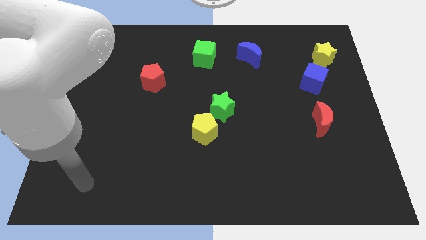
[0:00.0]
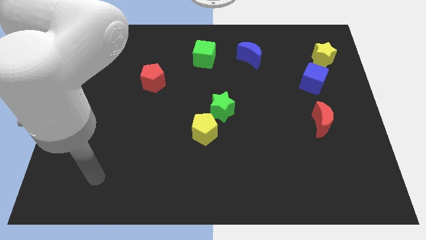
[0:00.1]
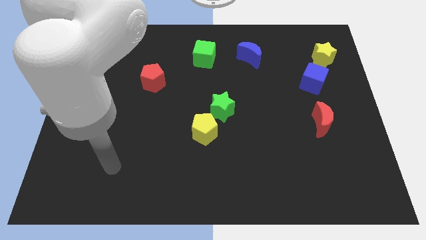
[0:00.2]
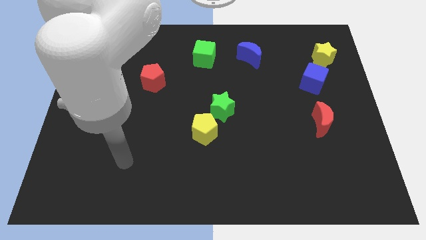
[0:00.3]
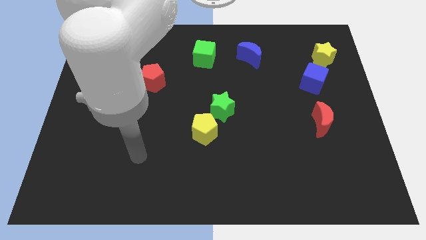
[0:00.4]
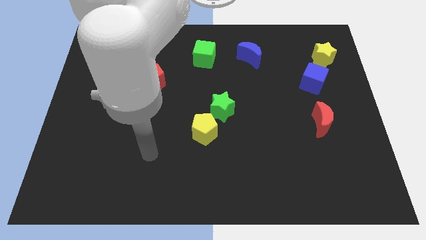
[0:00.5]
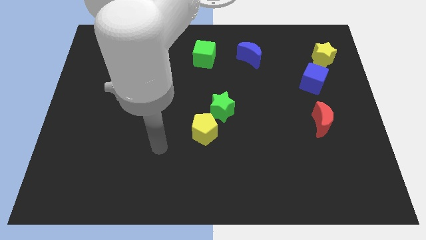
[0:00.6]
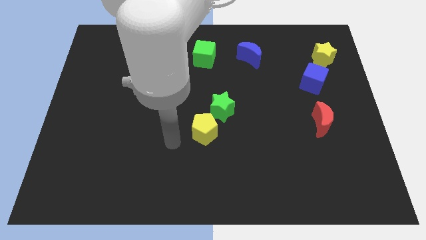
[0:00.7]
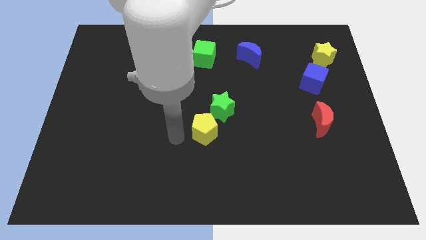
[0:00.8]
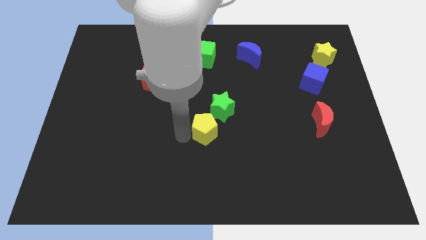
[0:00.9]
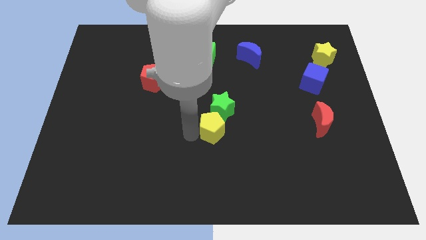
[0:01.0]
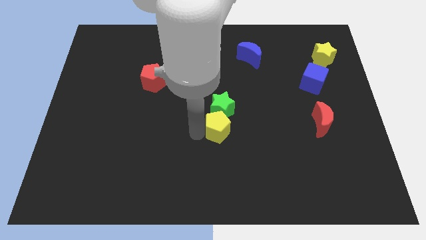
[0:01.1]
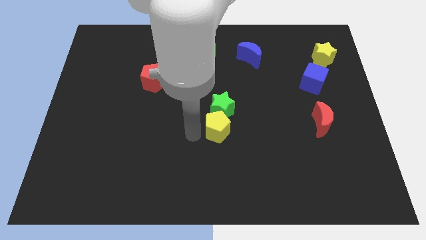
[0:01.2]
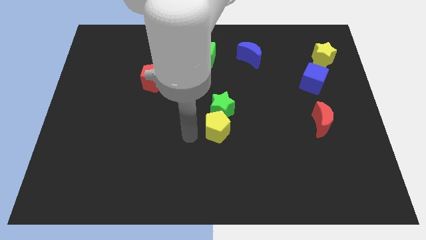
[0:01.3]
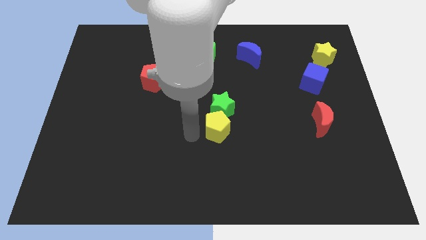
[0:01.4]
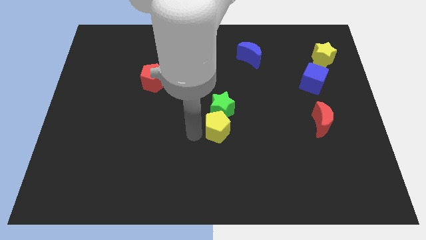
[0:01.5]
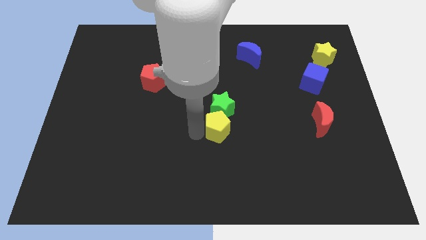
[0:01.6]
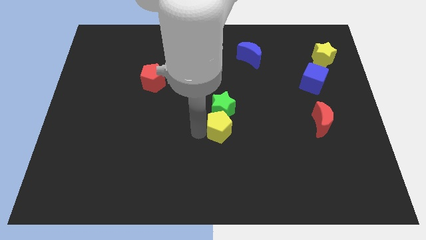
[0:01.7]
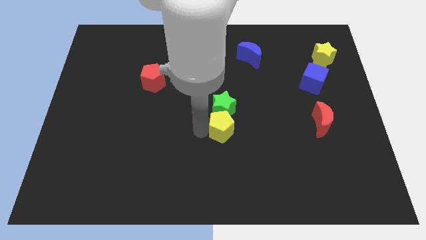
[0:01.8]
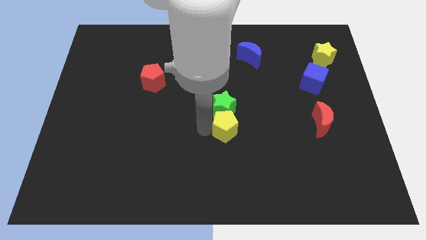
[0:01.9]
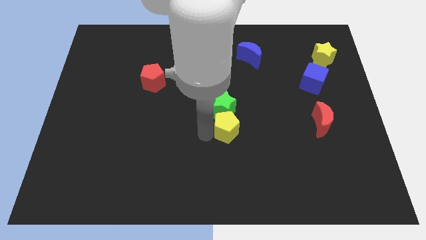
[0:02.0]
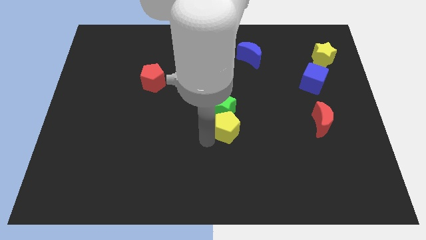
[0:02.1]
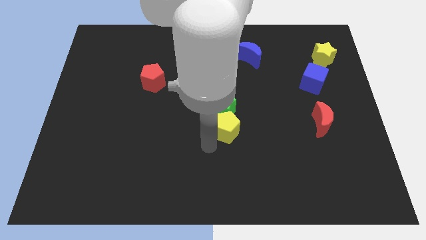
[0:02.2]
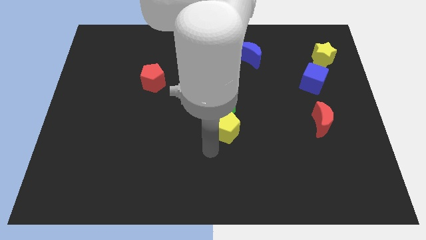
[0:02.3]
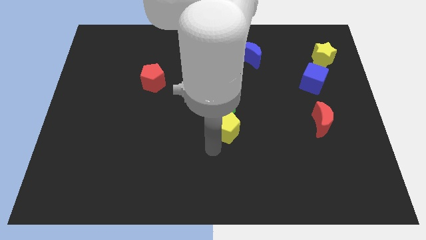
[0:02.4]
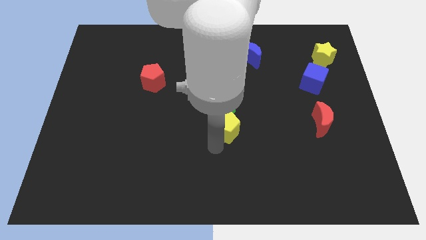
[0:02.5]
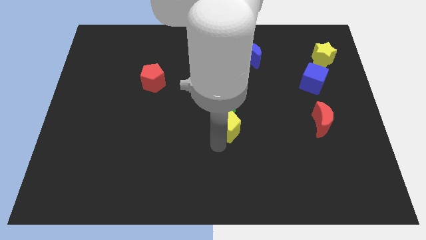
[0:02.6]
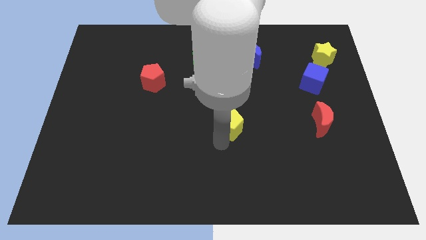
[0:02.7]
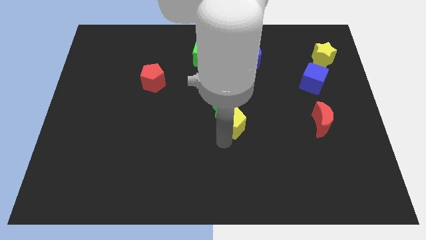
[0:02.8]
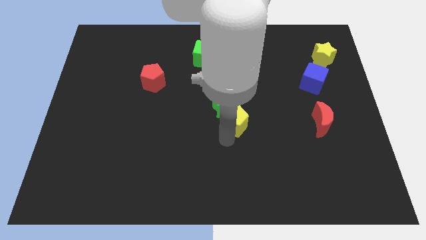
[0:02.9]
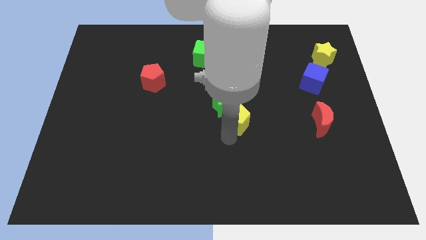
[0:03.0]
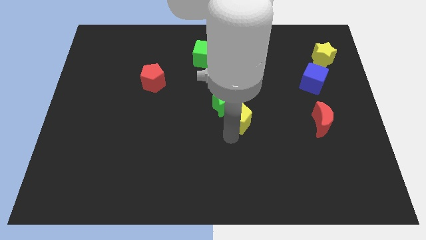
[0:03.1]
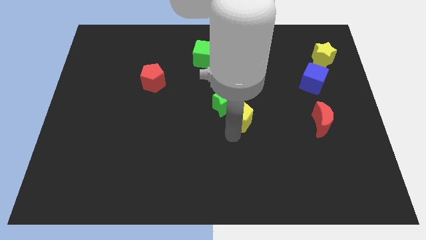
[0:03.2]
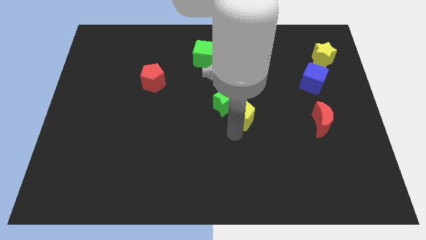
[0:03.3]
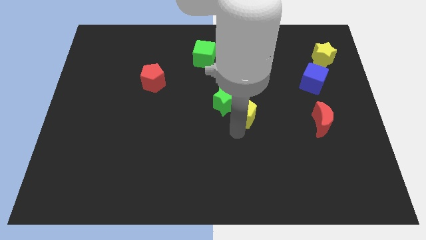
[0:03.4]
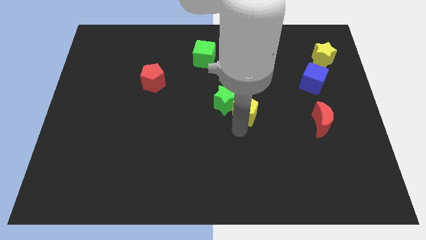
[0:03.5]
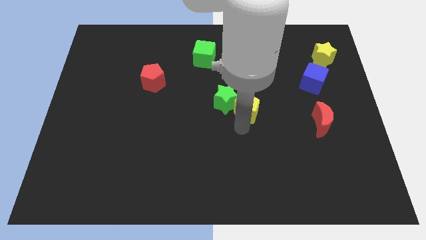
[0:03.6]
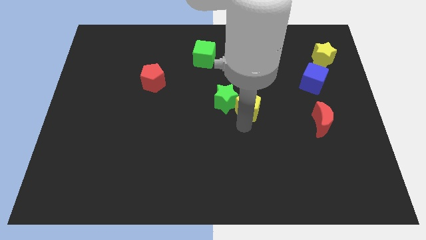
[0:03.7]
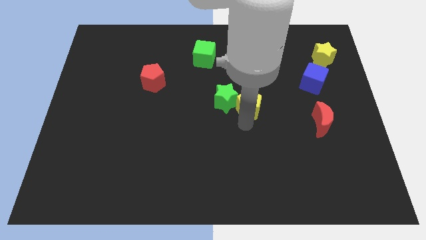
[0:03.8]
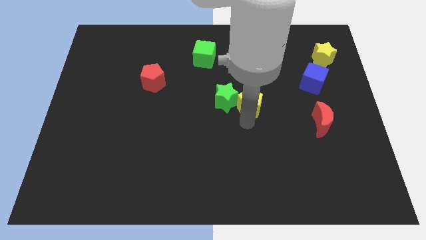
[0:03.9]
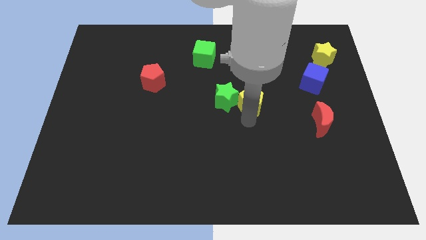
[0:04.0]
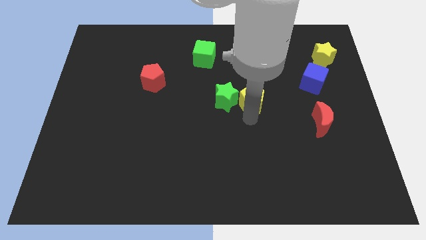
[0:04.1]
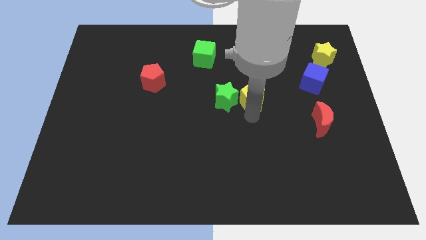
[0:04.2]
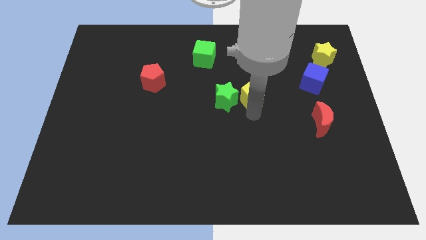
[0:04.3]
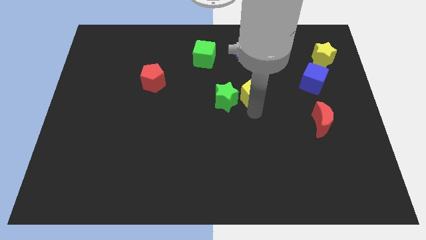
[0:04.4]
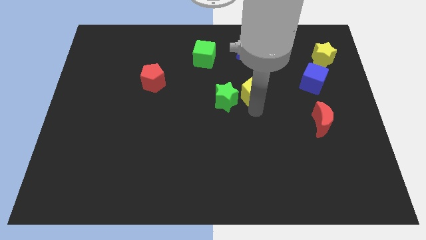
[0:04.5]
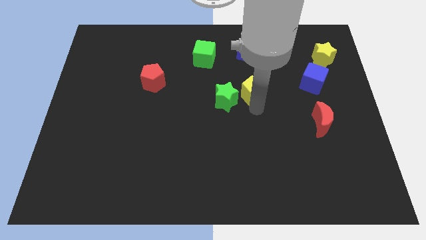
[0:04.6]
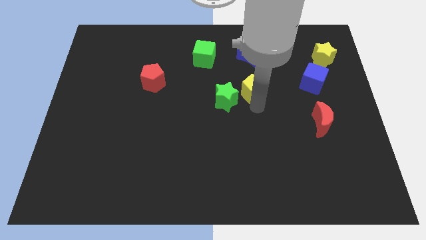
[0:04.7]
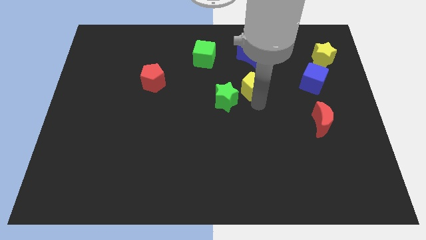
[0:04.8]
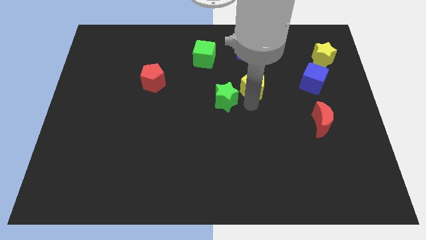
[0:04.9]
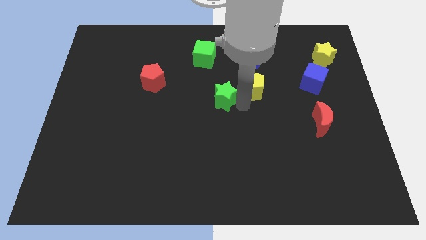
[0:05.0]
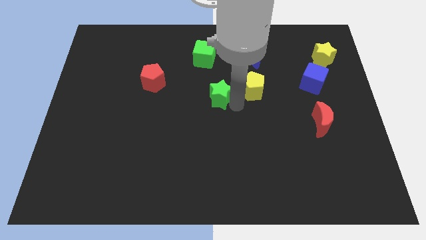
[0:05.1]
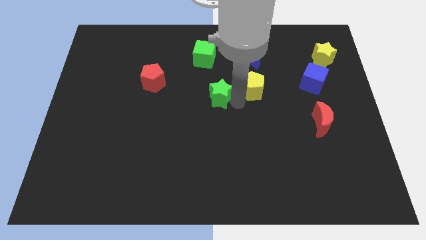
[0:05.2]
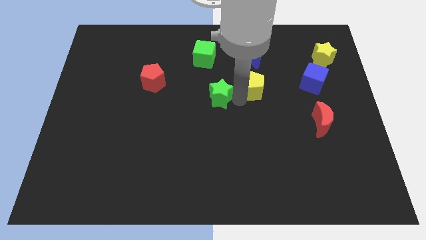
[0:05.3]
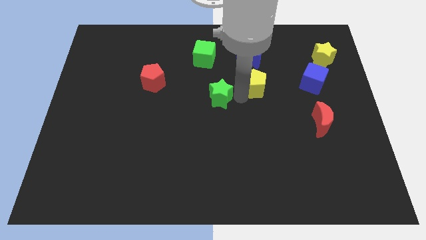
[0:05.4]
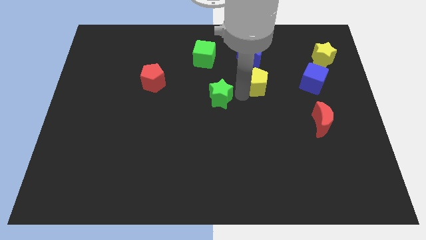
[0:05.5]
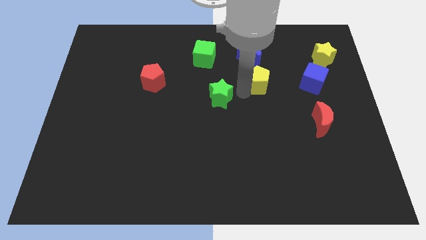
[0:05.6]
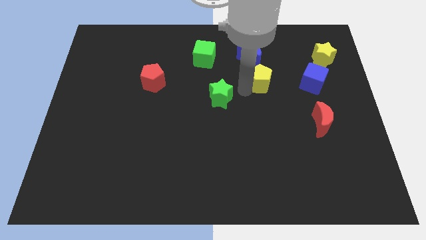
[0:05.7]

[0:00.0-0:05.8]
put the yellow pentagon to the bottom right side of the blue moon

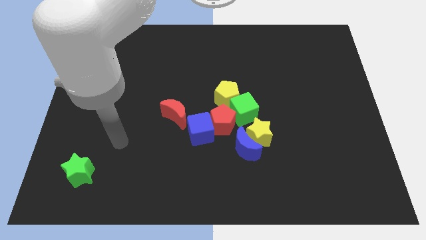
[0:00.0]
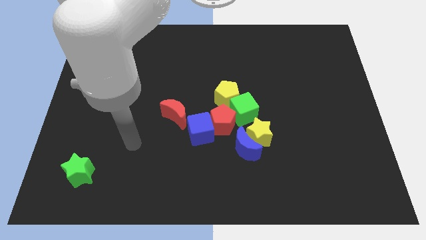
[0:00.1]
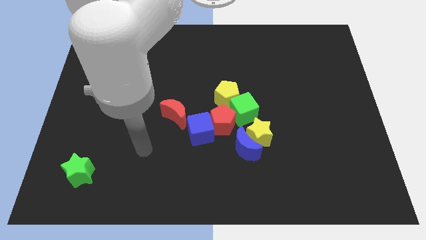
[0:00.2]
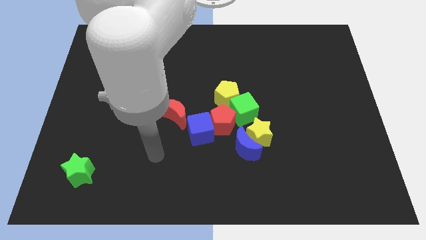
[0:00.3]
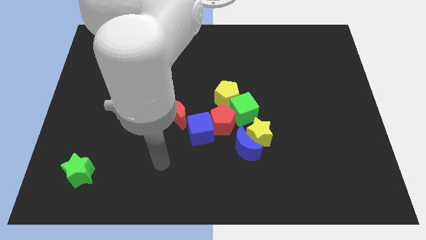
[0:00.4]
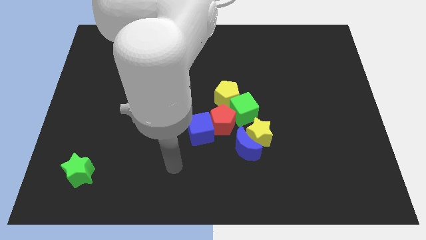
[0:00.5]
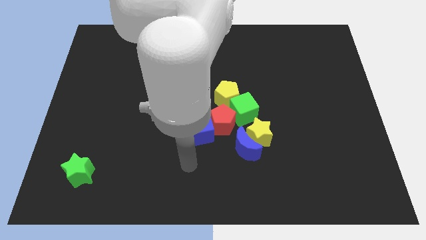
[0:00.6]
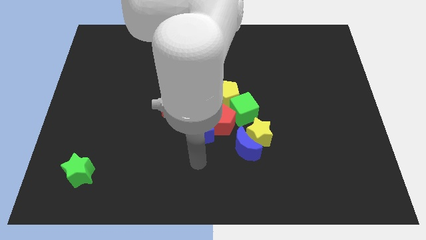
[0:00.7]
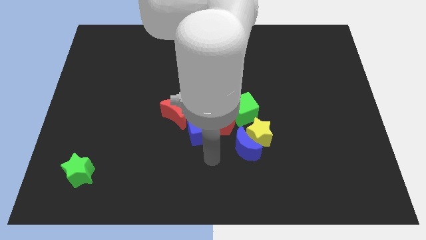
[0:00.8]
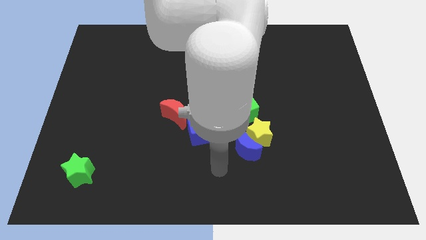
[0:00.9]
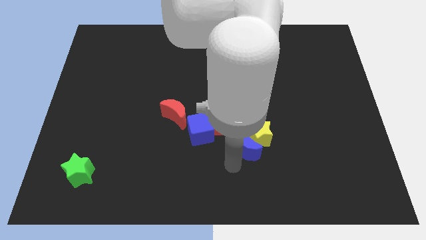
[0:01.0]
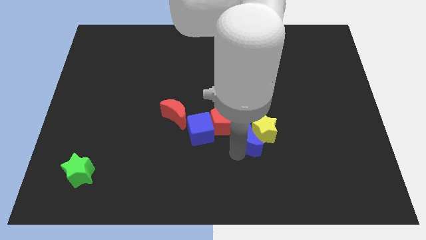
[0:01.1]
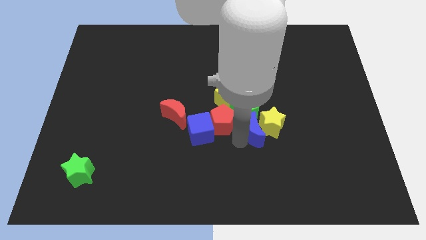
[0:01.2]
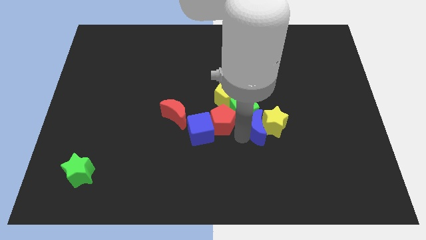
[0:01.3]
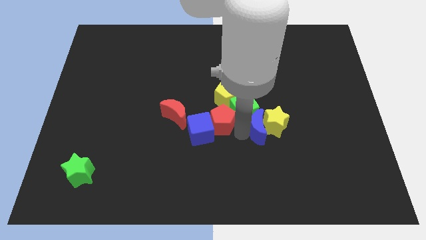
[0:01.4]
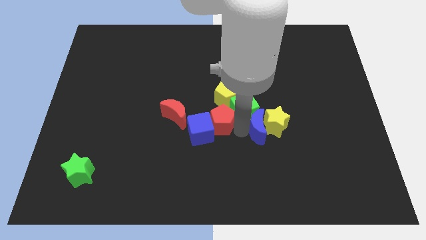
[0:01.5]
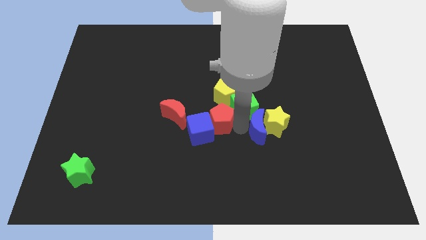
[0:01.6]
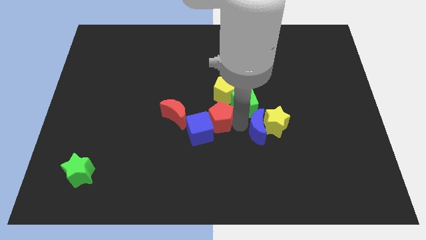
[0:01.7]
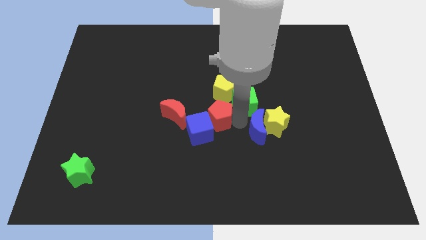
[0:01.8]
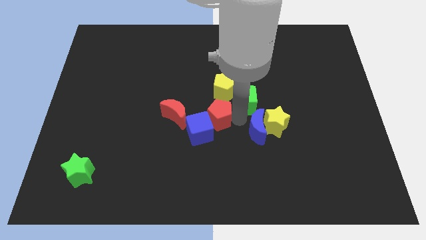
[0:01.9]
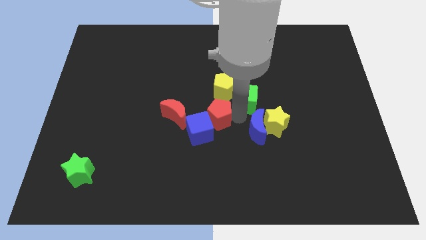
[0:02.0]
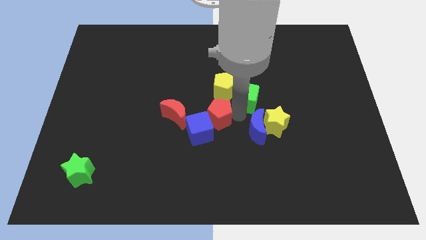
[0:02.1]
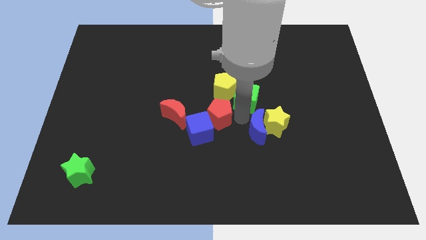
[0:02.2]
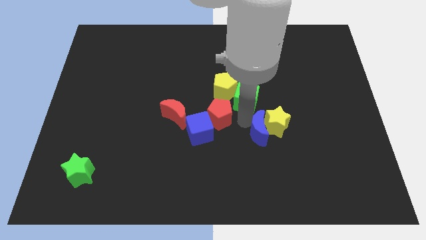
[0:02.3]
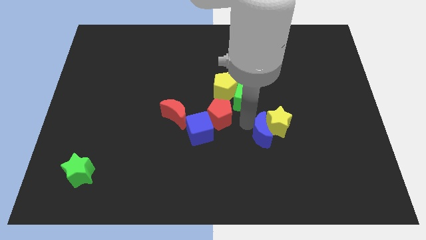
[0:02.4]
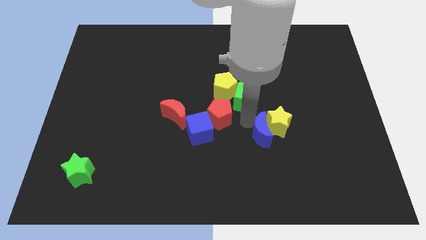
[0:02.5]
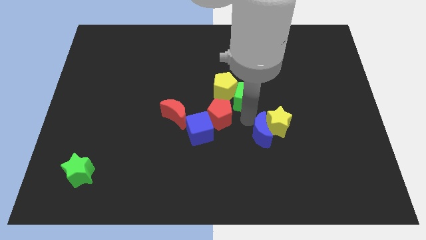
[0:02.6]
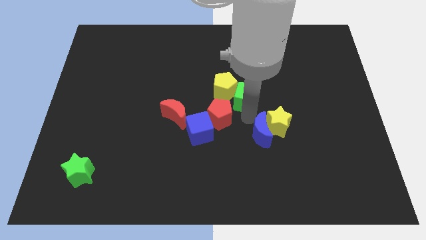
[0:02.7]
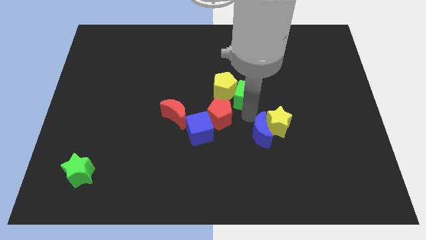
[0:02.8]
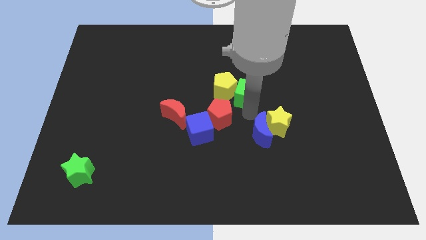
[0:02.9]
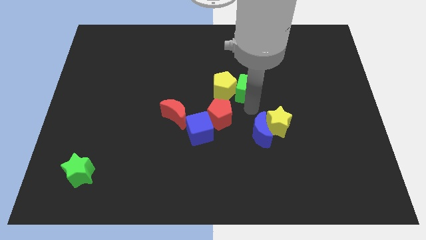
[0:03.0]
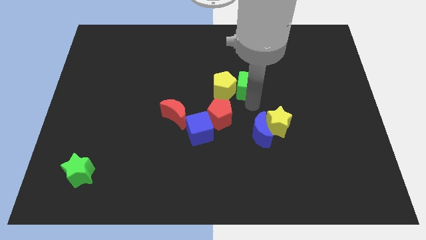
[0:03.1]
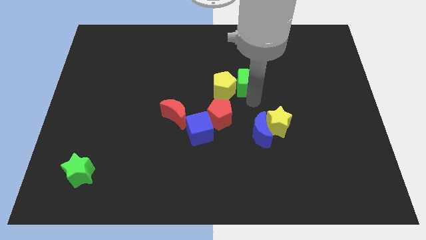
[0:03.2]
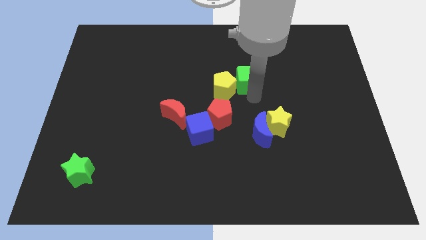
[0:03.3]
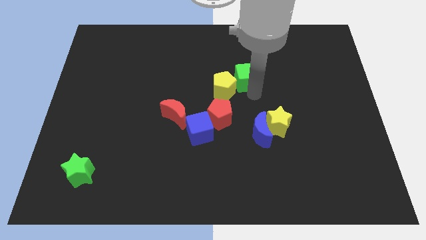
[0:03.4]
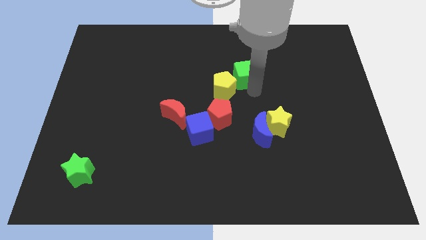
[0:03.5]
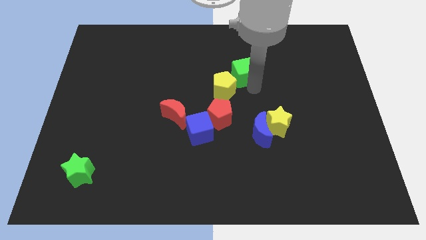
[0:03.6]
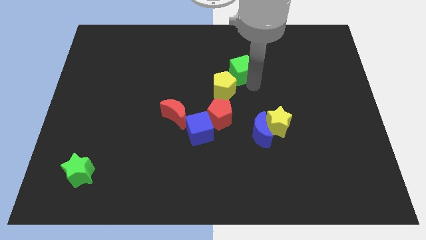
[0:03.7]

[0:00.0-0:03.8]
push the green cube to the top side of the yellow pentagon
